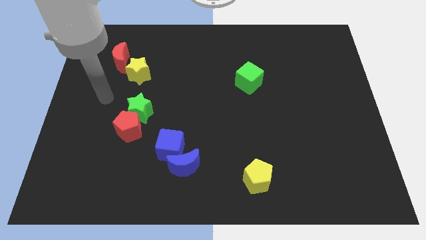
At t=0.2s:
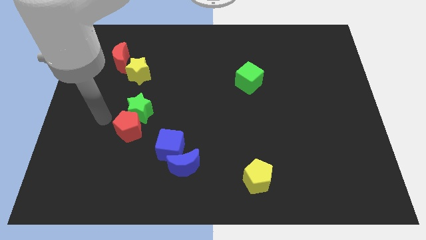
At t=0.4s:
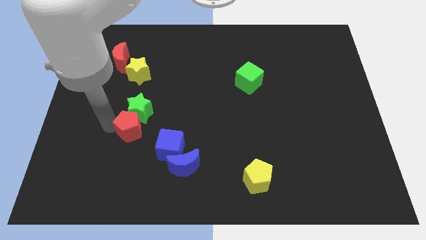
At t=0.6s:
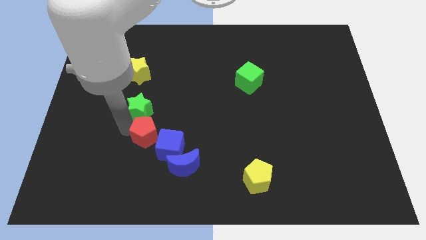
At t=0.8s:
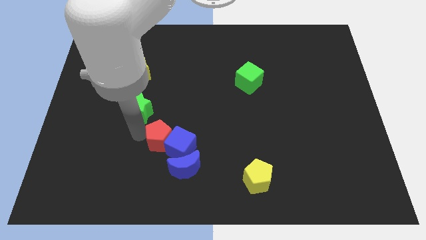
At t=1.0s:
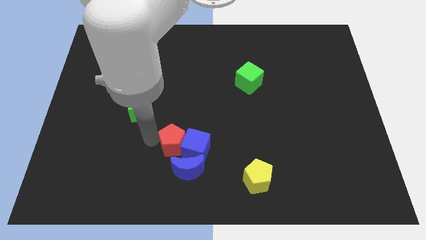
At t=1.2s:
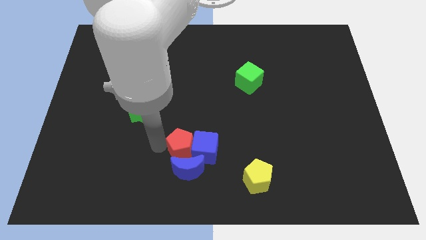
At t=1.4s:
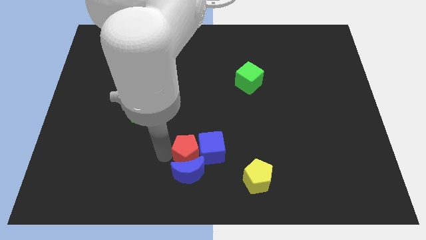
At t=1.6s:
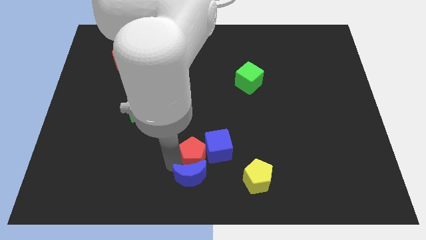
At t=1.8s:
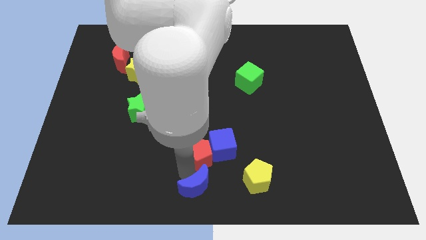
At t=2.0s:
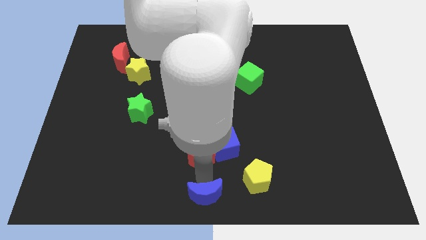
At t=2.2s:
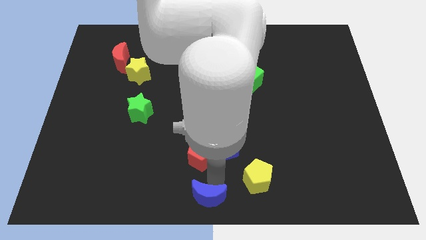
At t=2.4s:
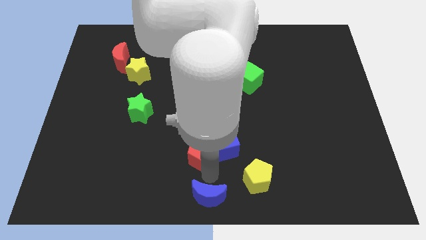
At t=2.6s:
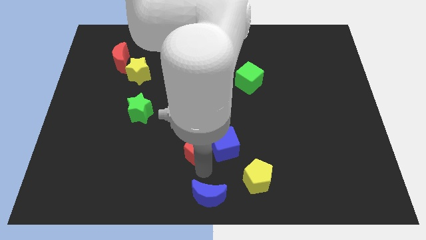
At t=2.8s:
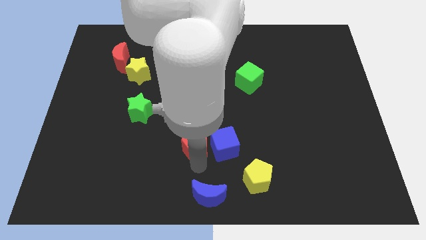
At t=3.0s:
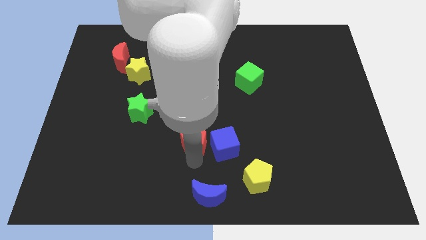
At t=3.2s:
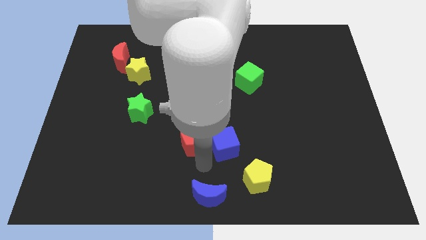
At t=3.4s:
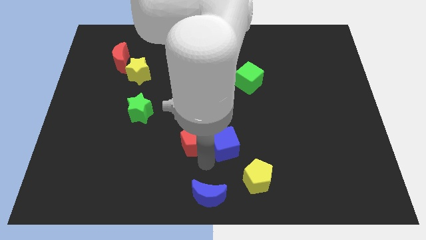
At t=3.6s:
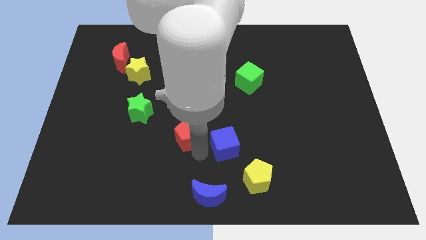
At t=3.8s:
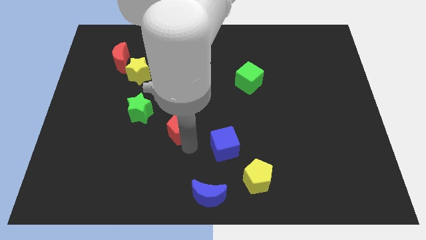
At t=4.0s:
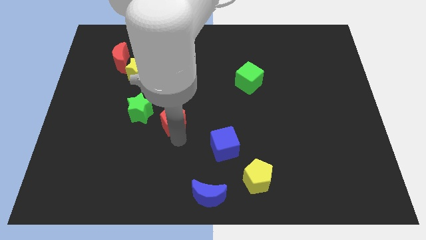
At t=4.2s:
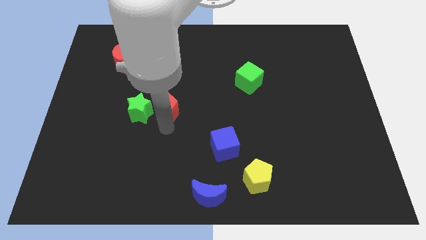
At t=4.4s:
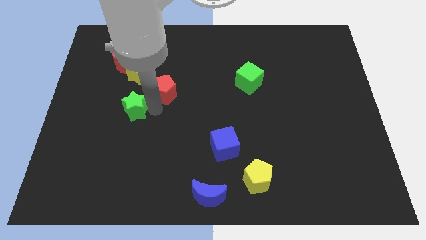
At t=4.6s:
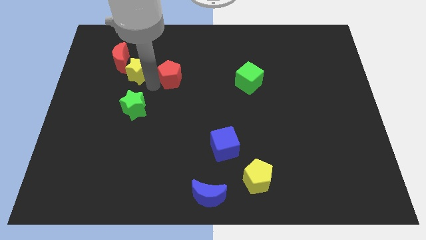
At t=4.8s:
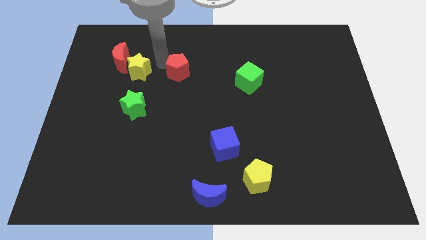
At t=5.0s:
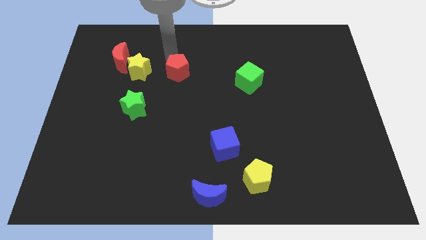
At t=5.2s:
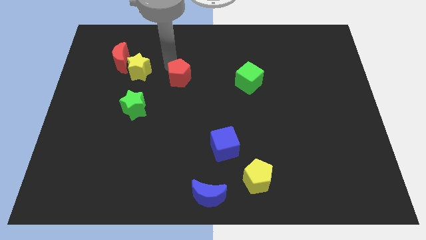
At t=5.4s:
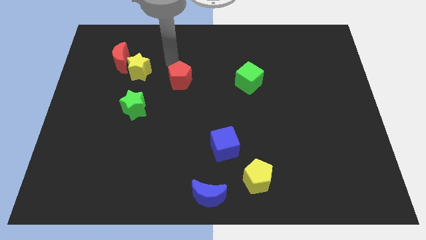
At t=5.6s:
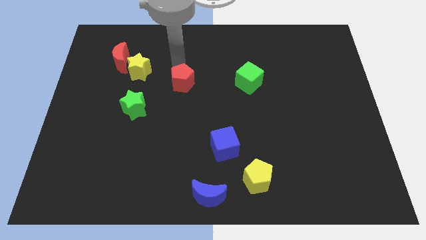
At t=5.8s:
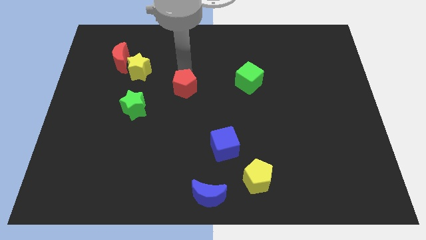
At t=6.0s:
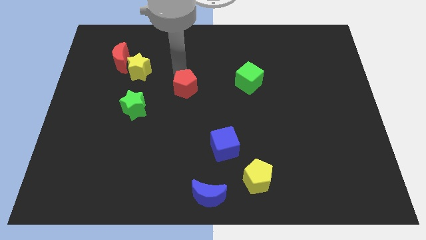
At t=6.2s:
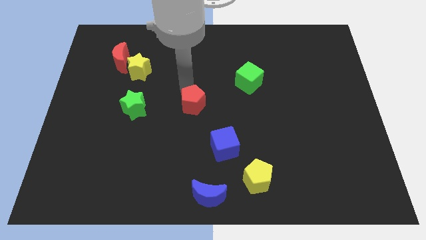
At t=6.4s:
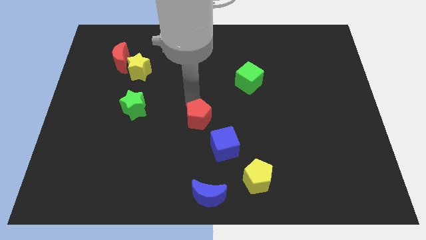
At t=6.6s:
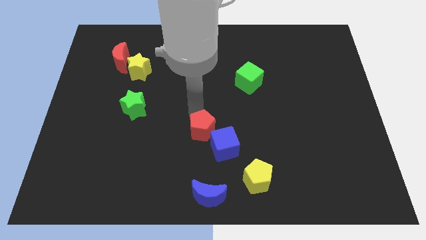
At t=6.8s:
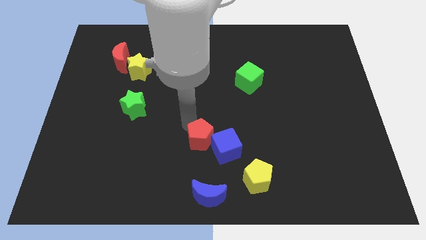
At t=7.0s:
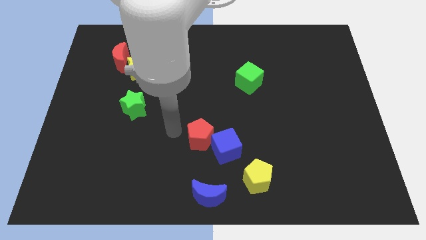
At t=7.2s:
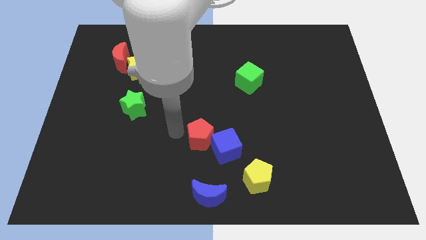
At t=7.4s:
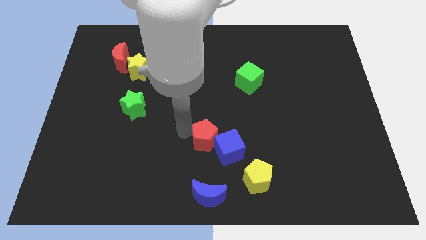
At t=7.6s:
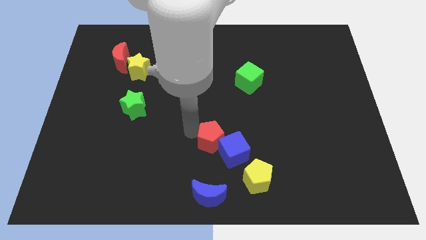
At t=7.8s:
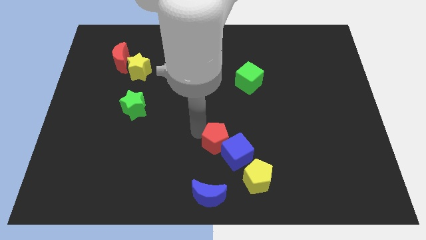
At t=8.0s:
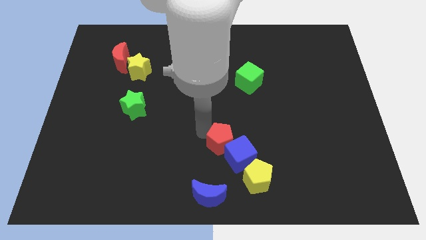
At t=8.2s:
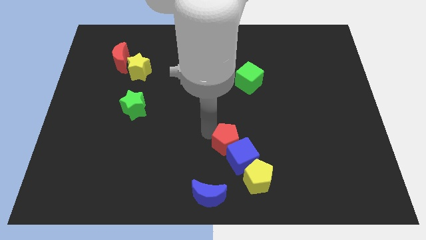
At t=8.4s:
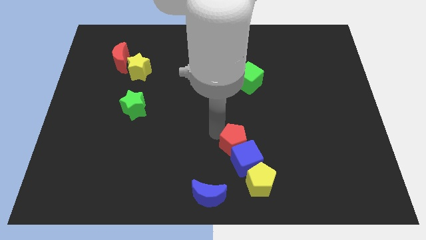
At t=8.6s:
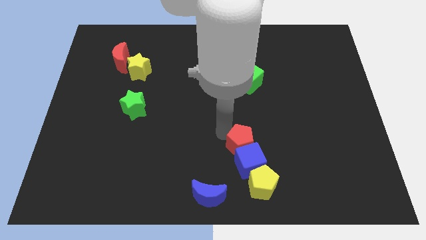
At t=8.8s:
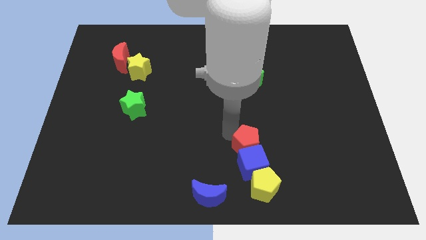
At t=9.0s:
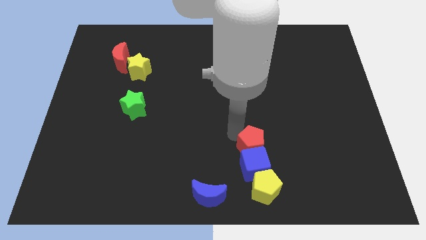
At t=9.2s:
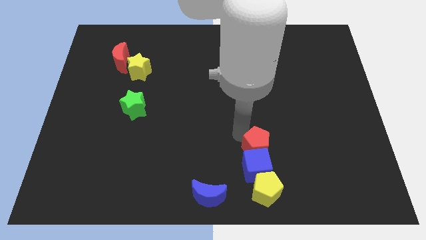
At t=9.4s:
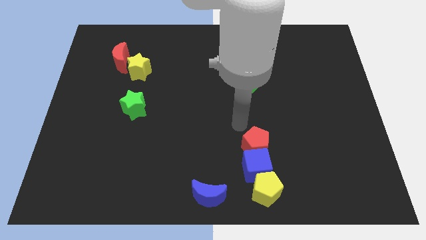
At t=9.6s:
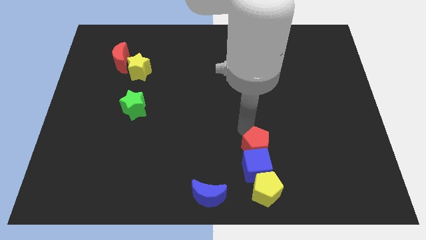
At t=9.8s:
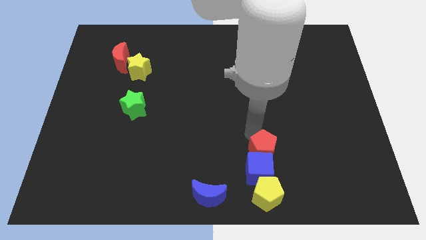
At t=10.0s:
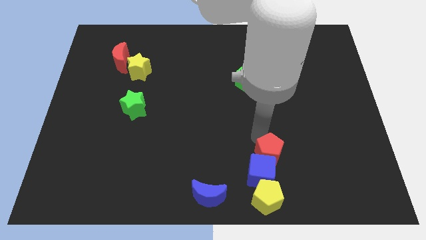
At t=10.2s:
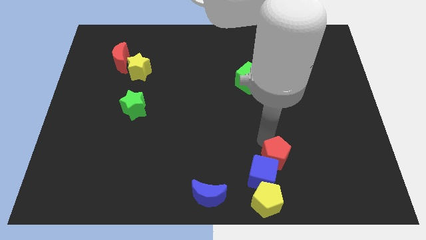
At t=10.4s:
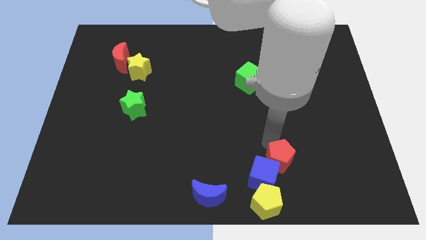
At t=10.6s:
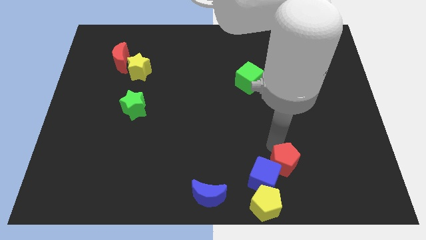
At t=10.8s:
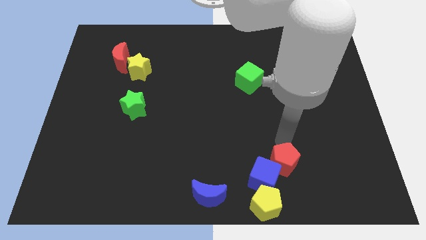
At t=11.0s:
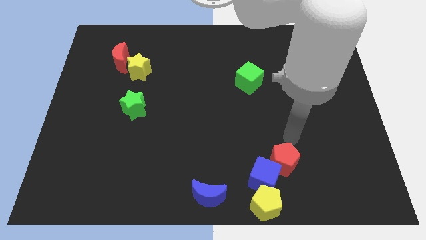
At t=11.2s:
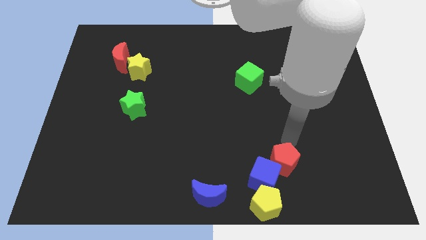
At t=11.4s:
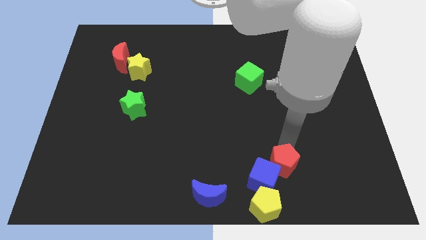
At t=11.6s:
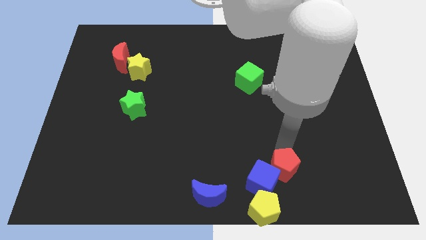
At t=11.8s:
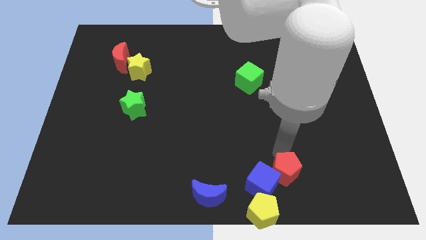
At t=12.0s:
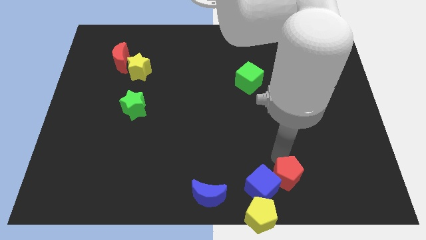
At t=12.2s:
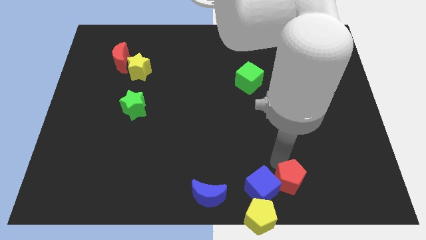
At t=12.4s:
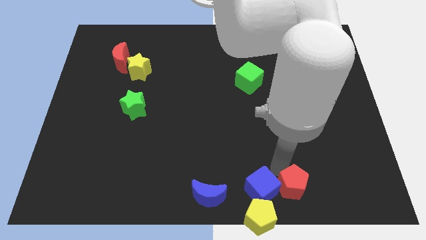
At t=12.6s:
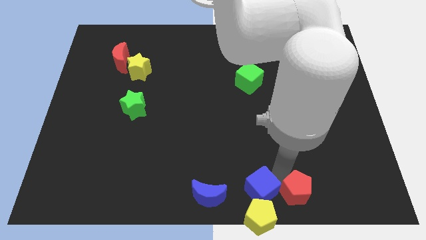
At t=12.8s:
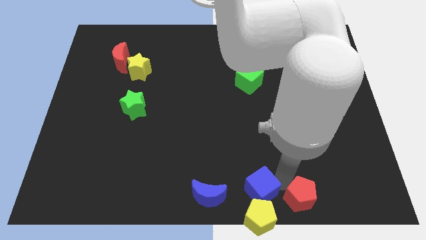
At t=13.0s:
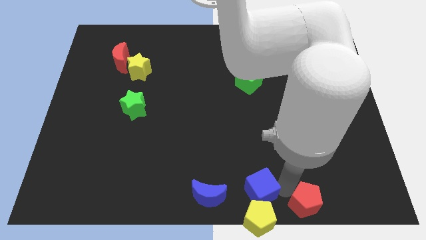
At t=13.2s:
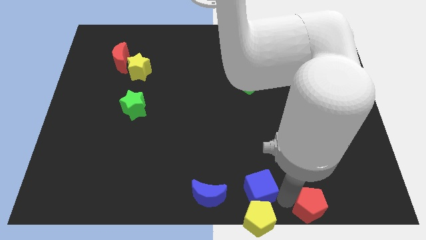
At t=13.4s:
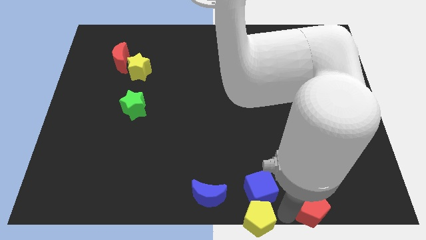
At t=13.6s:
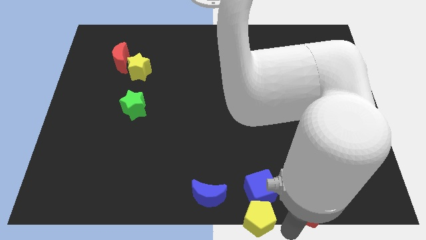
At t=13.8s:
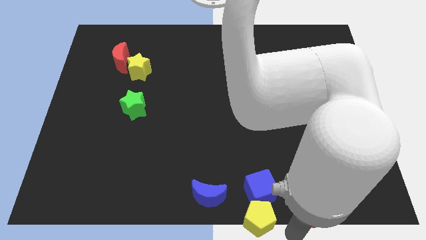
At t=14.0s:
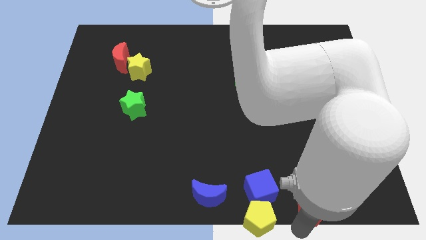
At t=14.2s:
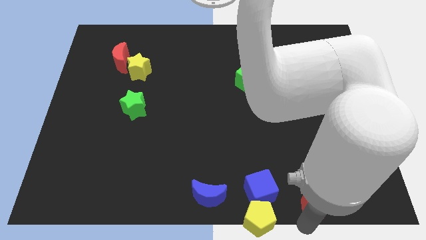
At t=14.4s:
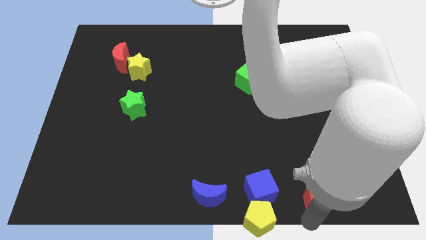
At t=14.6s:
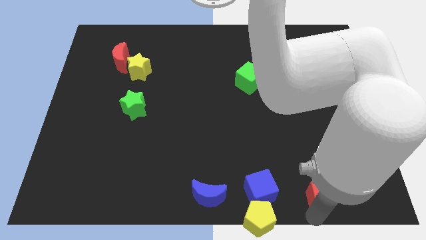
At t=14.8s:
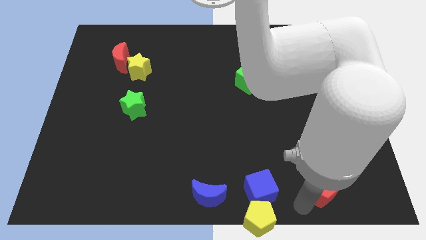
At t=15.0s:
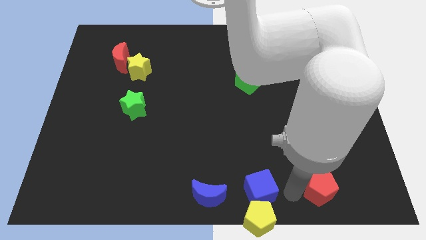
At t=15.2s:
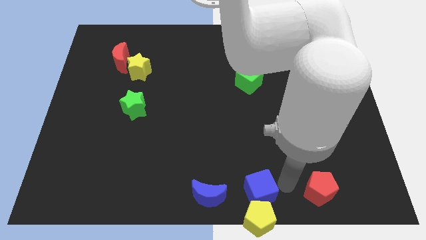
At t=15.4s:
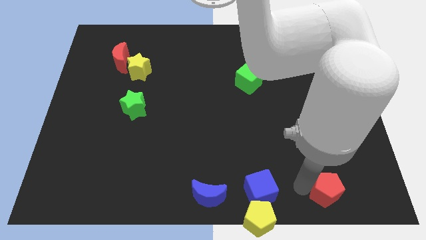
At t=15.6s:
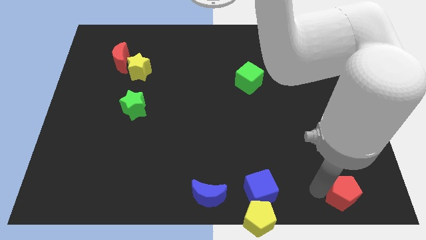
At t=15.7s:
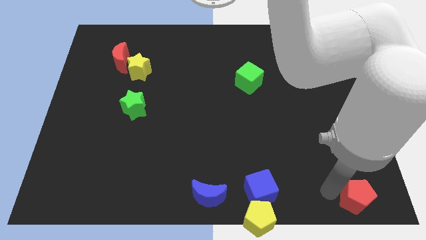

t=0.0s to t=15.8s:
push the red pentagon to the bottom right
